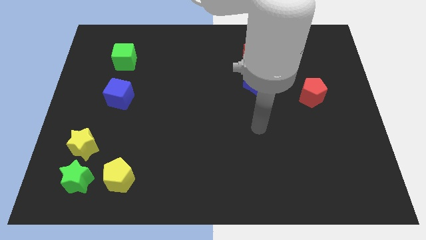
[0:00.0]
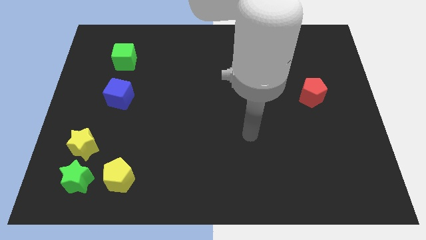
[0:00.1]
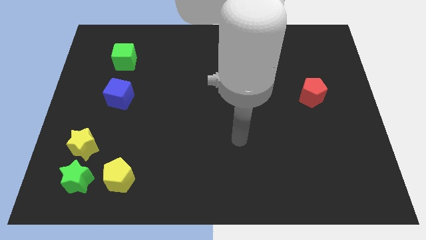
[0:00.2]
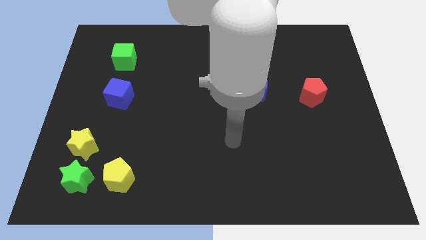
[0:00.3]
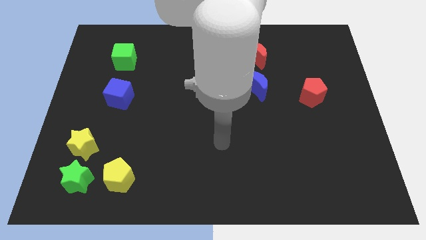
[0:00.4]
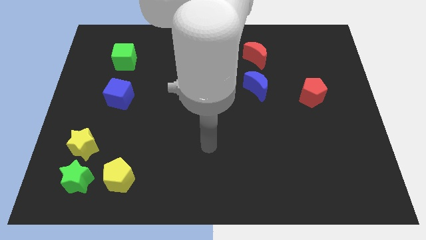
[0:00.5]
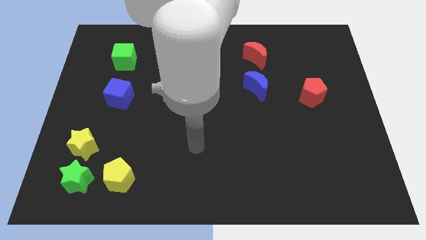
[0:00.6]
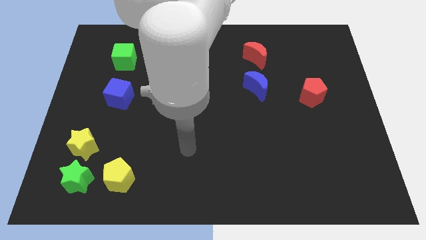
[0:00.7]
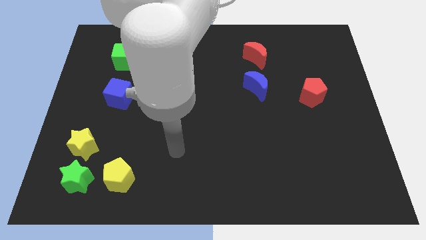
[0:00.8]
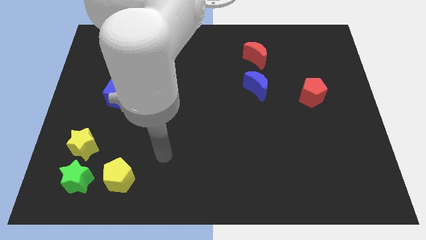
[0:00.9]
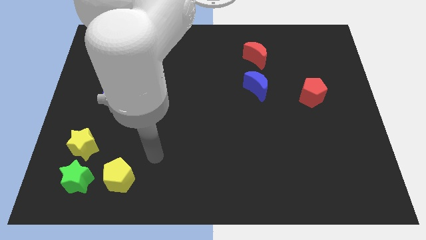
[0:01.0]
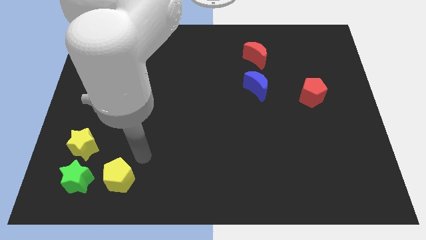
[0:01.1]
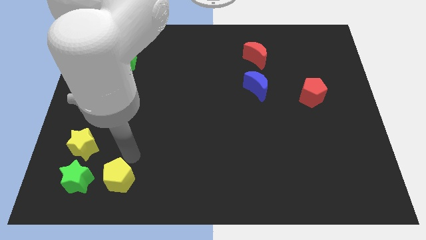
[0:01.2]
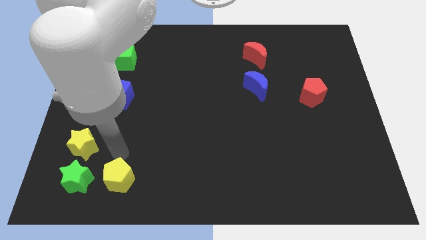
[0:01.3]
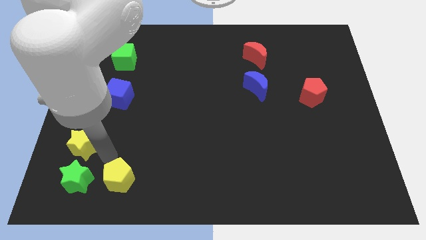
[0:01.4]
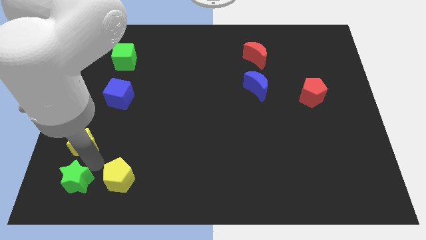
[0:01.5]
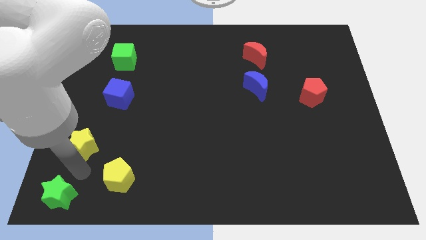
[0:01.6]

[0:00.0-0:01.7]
move the yellow star away from the green star

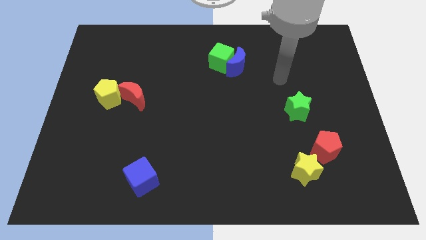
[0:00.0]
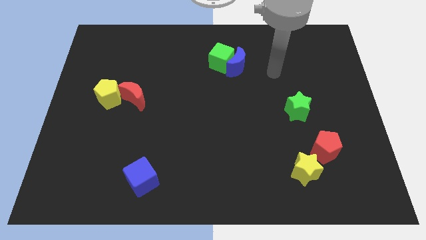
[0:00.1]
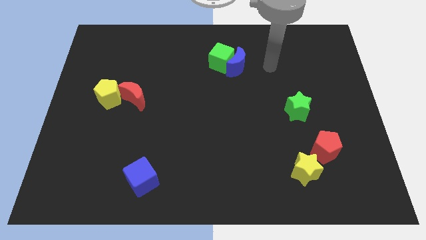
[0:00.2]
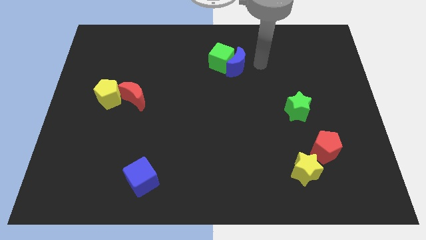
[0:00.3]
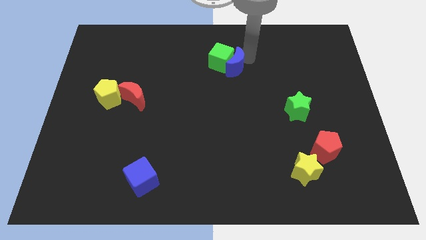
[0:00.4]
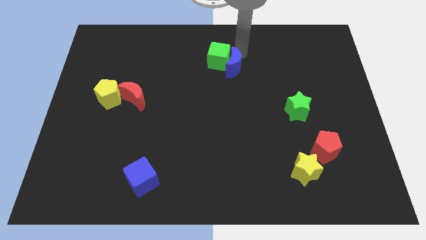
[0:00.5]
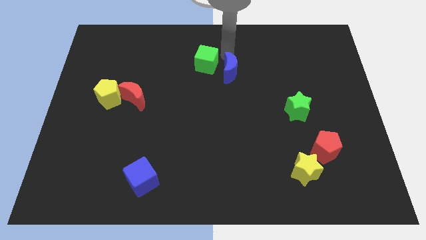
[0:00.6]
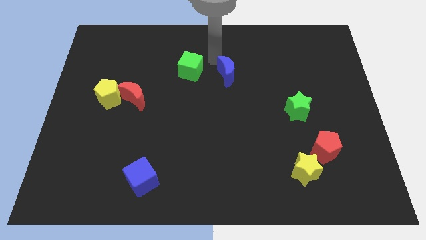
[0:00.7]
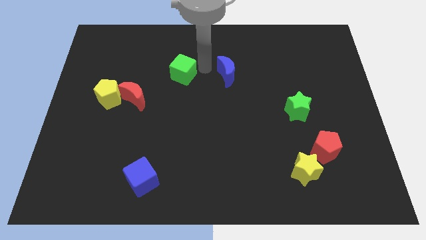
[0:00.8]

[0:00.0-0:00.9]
pull the blue moon apart from the green cube

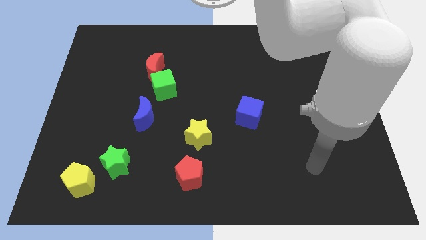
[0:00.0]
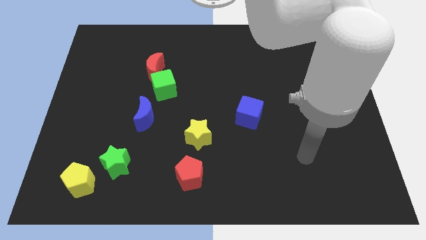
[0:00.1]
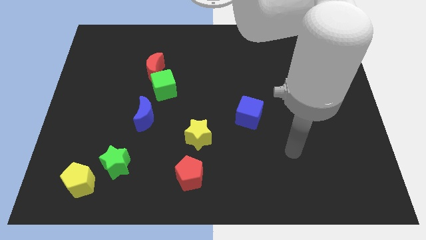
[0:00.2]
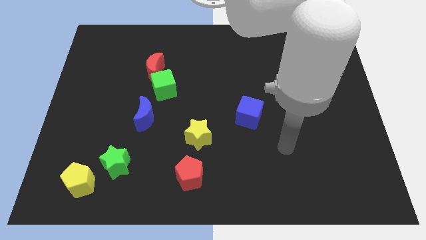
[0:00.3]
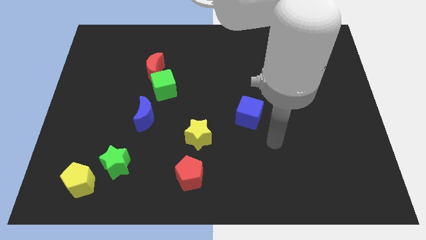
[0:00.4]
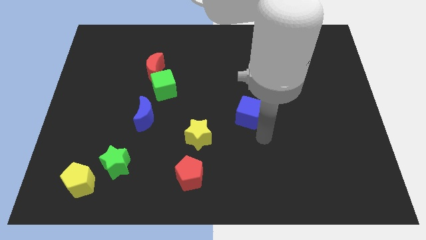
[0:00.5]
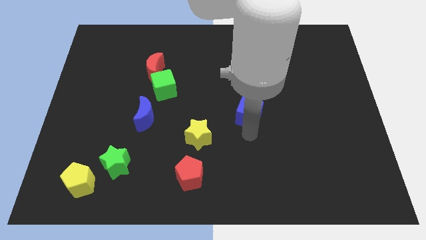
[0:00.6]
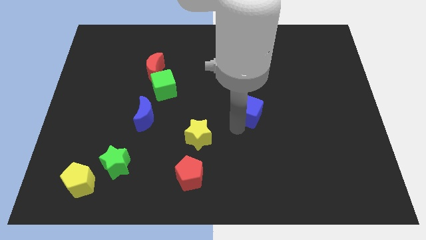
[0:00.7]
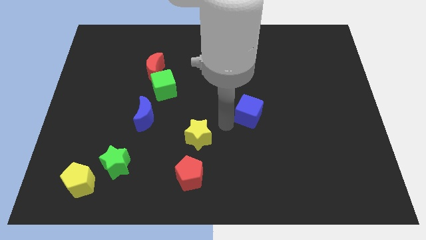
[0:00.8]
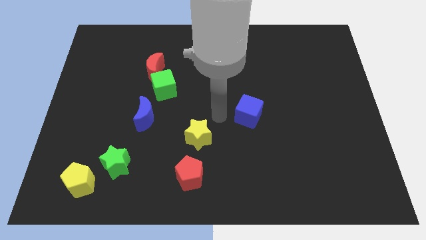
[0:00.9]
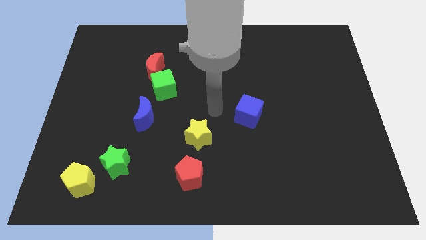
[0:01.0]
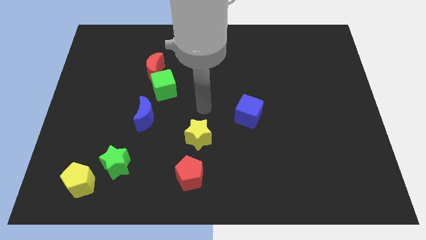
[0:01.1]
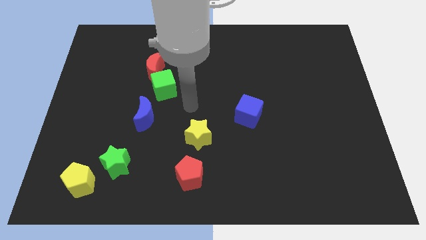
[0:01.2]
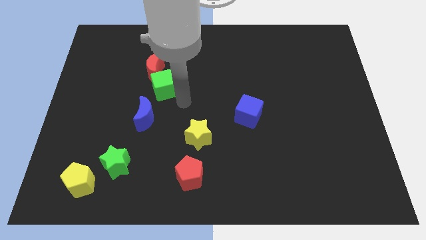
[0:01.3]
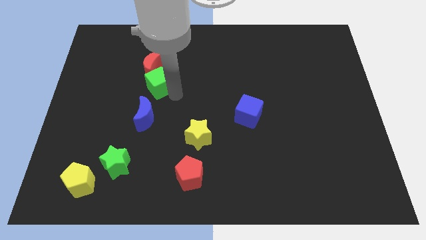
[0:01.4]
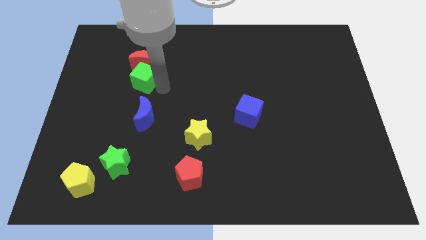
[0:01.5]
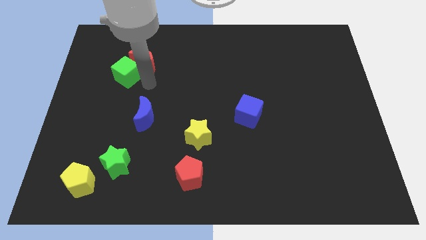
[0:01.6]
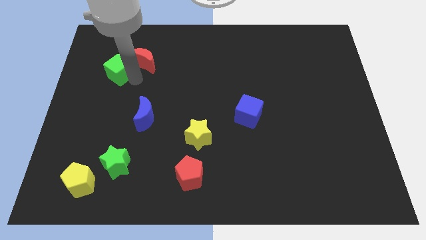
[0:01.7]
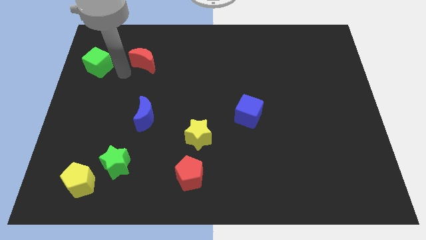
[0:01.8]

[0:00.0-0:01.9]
move the red moon away from the green cube

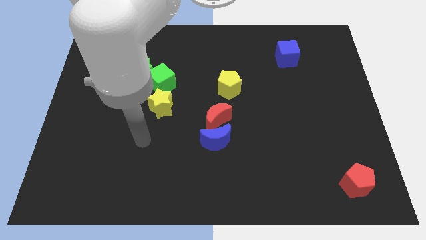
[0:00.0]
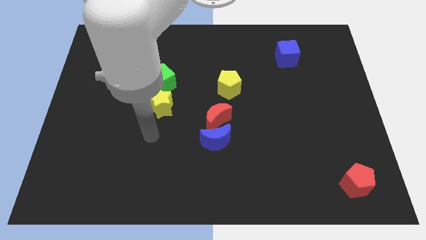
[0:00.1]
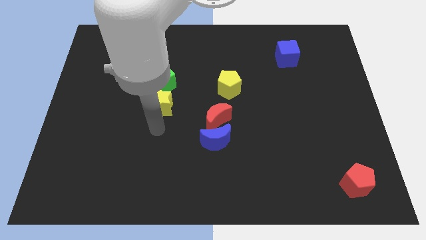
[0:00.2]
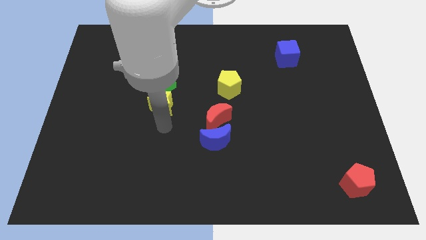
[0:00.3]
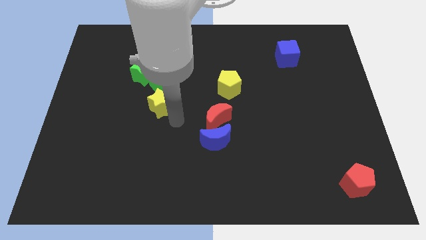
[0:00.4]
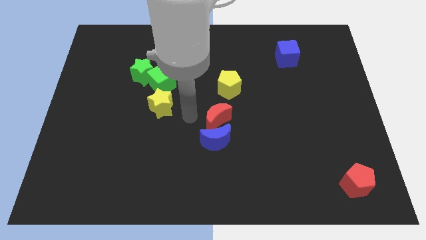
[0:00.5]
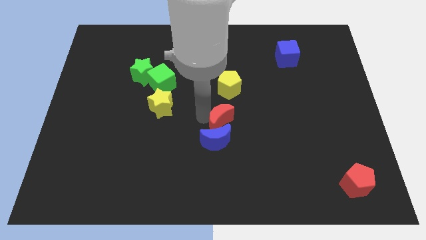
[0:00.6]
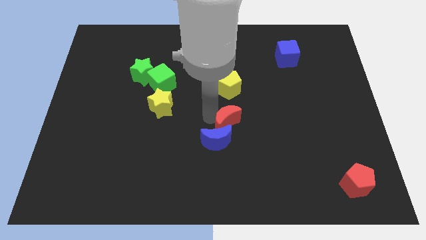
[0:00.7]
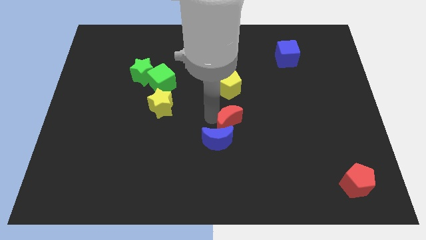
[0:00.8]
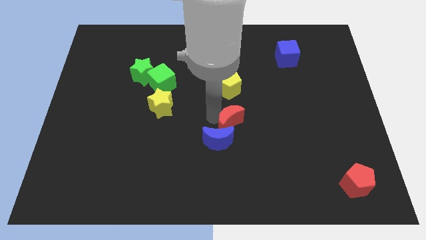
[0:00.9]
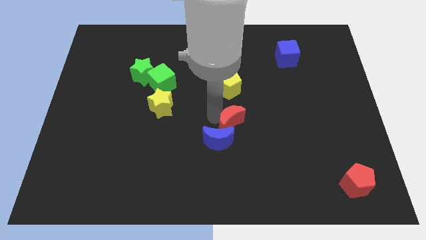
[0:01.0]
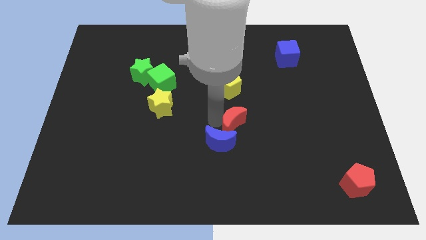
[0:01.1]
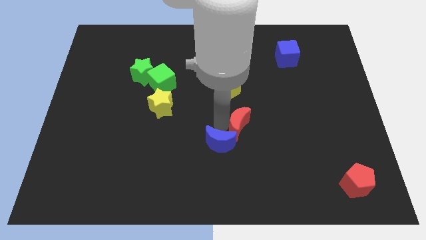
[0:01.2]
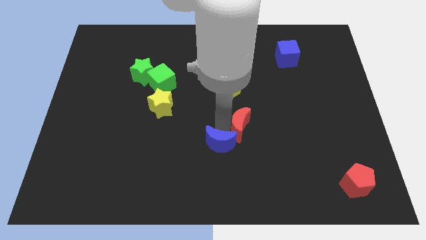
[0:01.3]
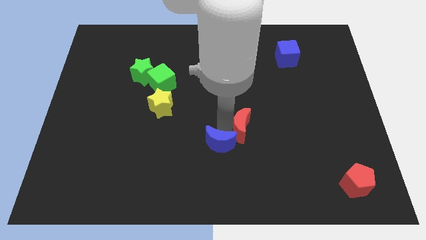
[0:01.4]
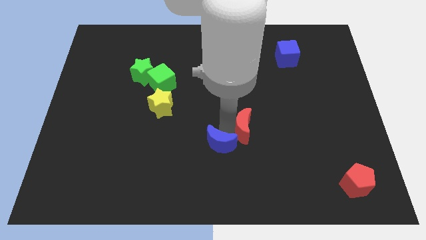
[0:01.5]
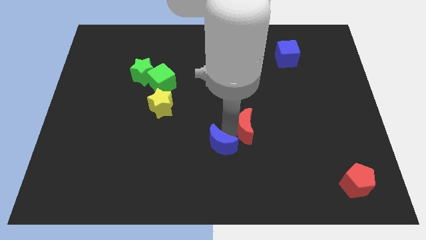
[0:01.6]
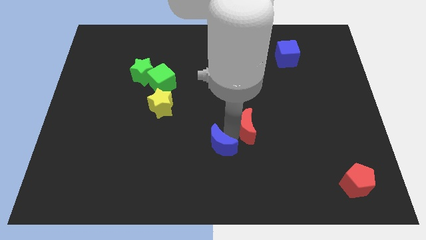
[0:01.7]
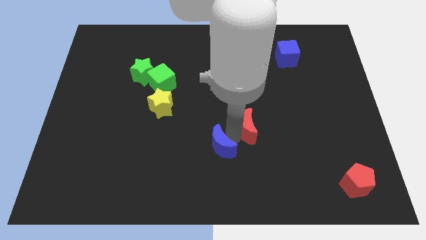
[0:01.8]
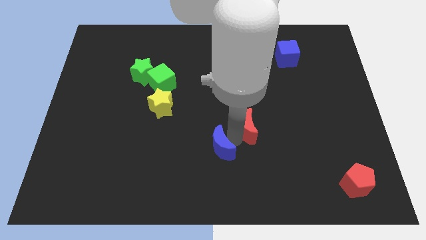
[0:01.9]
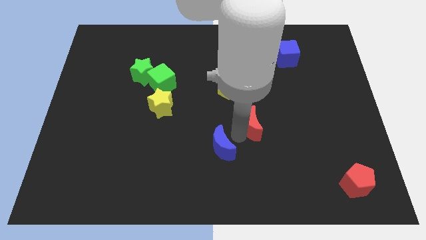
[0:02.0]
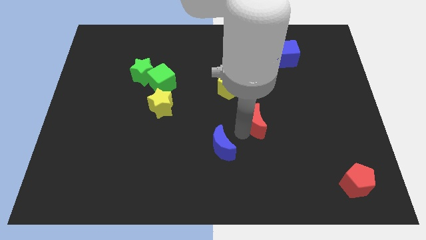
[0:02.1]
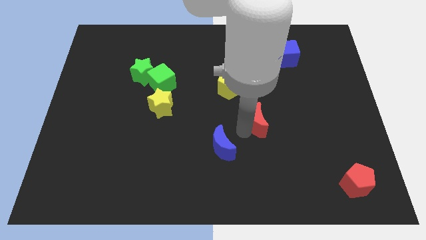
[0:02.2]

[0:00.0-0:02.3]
pull the blue moon apart from the red moon

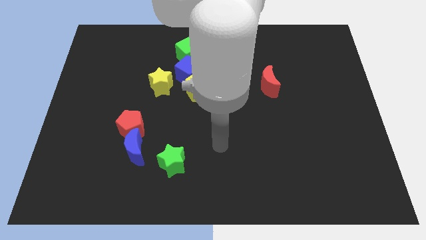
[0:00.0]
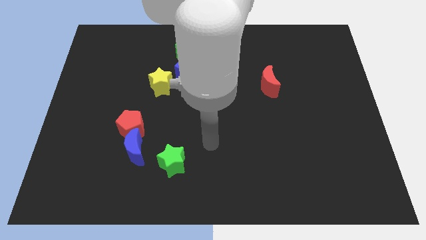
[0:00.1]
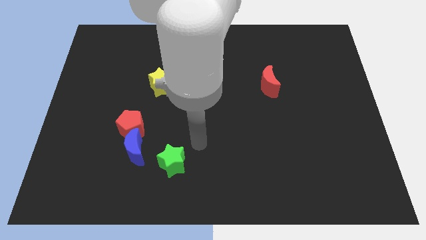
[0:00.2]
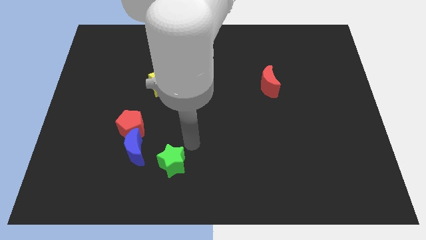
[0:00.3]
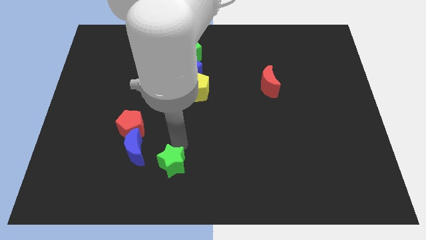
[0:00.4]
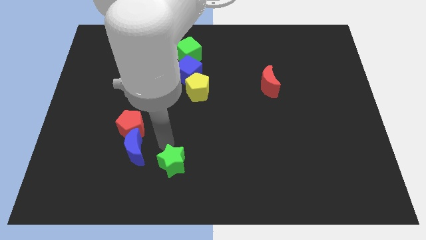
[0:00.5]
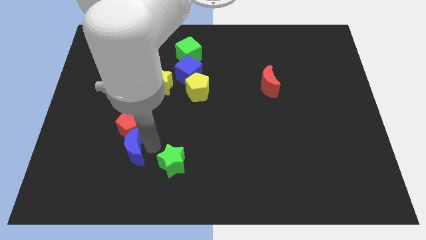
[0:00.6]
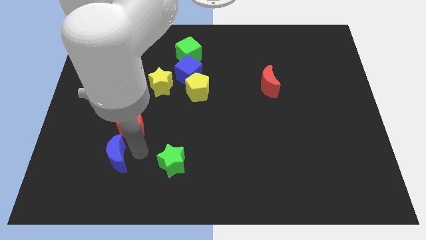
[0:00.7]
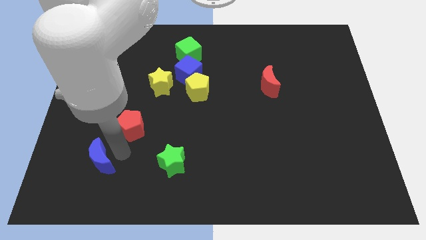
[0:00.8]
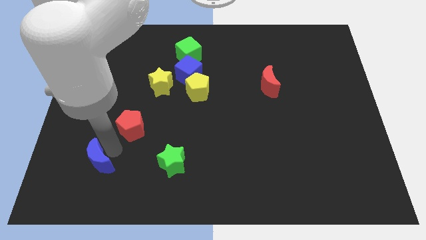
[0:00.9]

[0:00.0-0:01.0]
separate the red pentagon from the blue moon

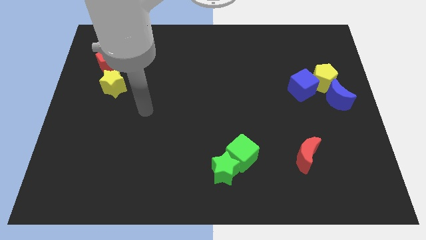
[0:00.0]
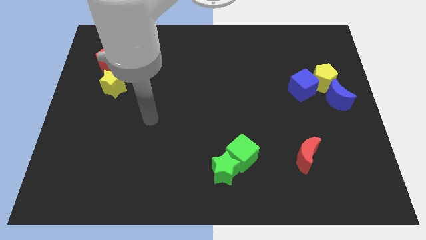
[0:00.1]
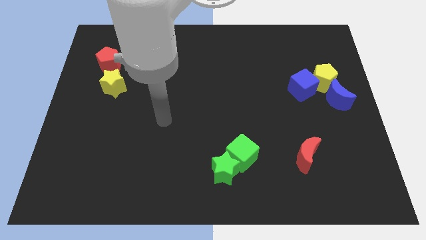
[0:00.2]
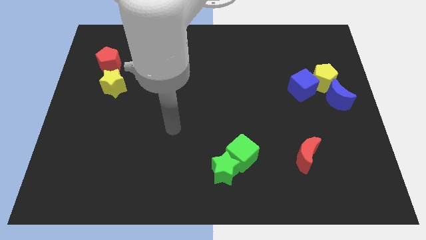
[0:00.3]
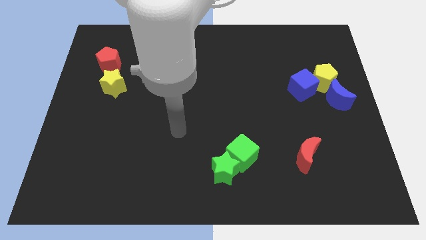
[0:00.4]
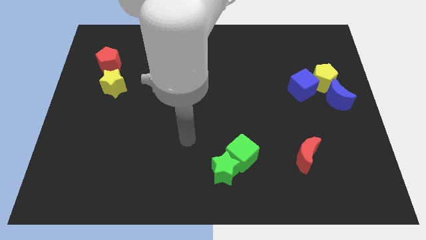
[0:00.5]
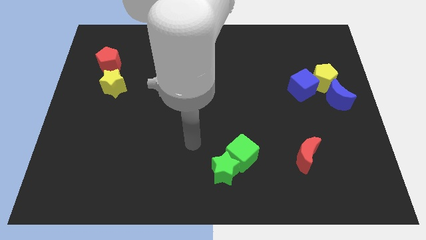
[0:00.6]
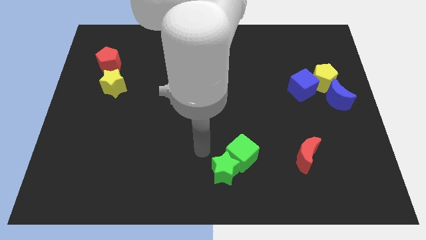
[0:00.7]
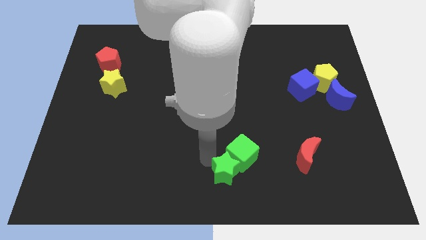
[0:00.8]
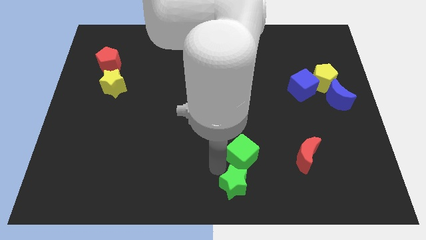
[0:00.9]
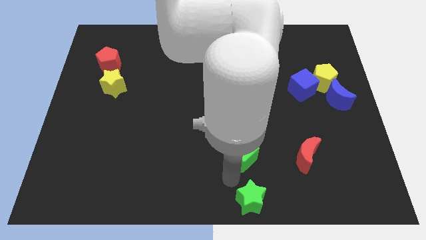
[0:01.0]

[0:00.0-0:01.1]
move the green cube away from the green star

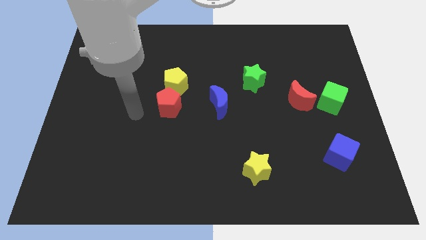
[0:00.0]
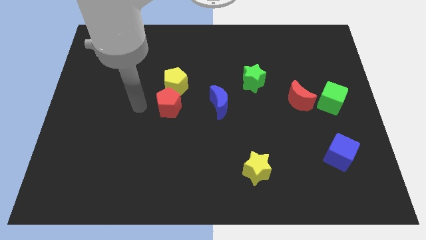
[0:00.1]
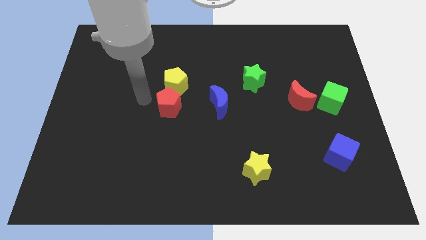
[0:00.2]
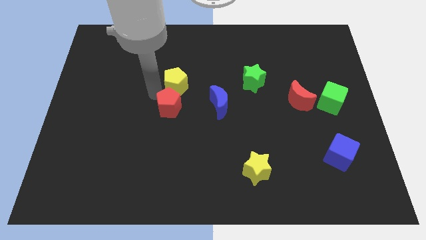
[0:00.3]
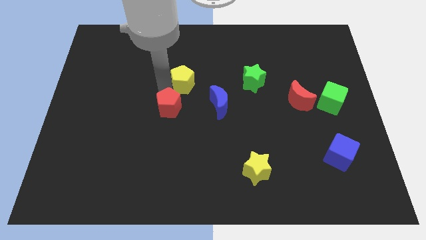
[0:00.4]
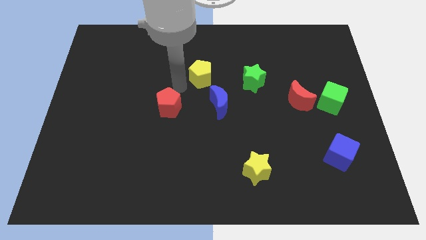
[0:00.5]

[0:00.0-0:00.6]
pull the red pentagon apart from the yellow pentagon
